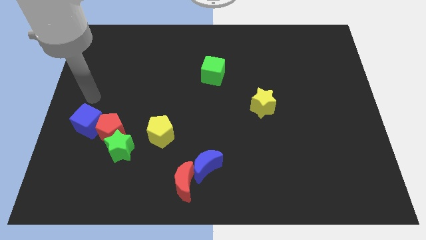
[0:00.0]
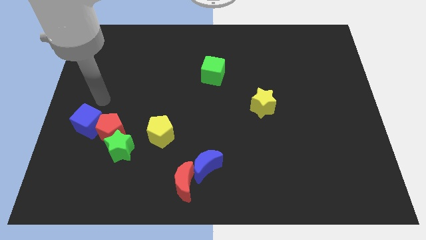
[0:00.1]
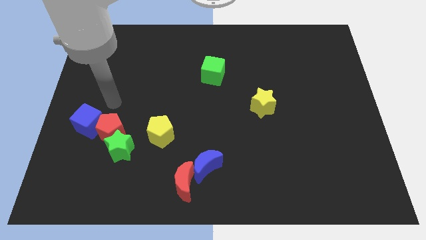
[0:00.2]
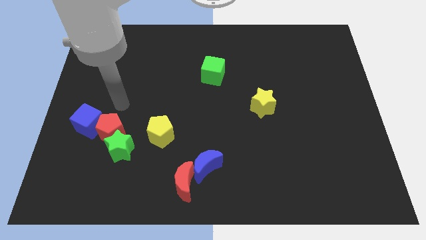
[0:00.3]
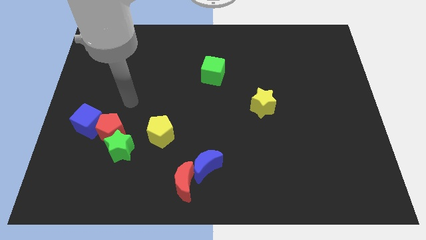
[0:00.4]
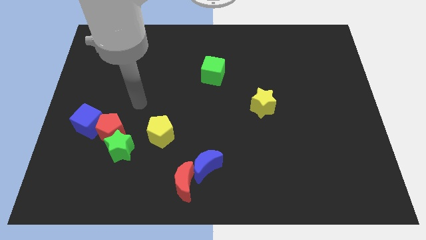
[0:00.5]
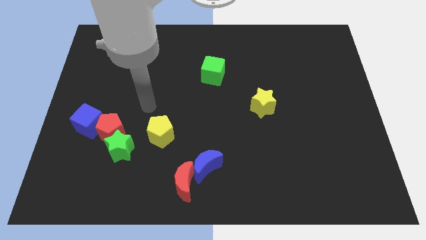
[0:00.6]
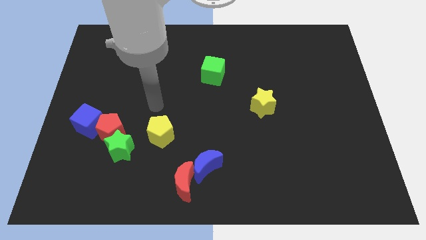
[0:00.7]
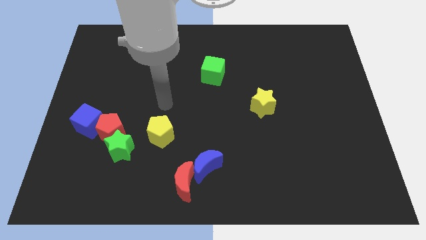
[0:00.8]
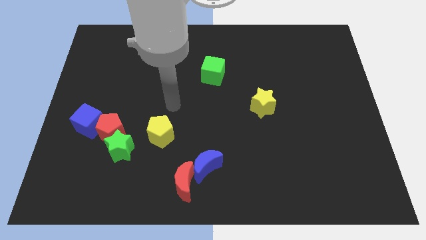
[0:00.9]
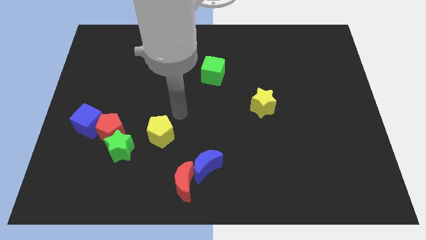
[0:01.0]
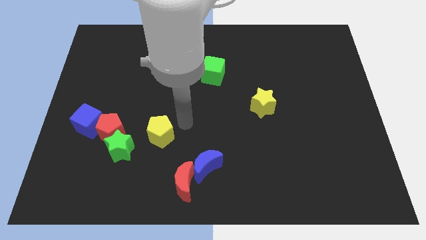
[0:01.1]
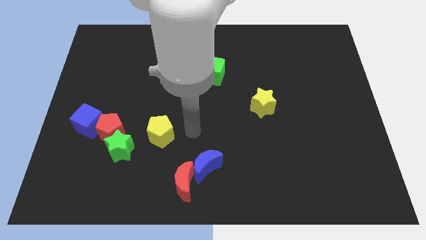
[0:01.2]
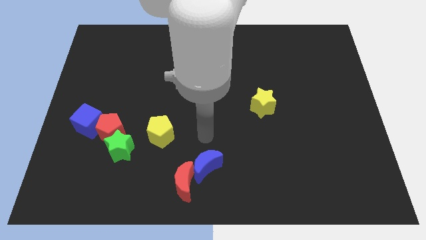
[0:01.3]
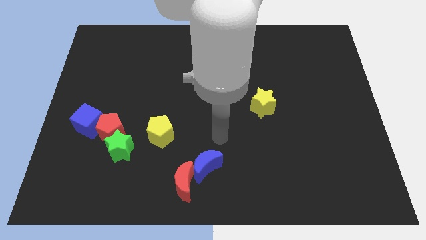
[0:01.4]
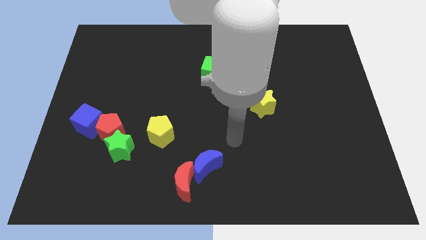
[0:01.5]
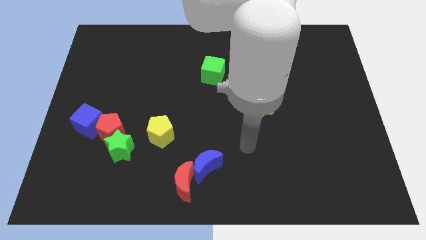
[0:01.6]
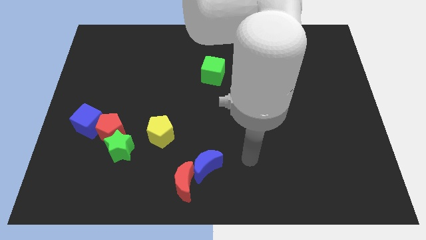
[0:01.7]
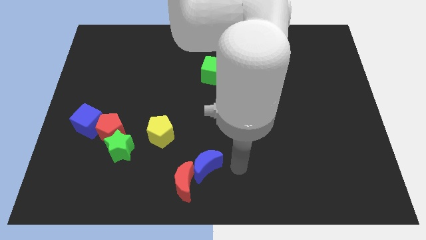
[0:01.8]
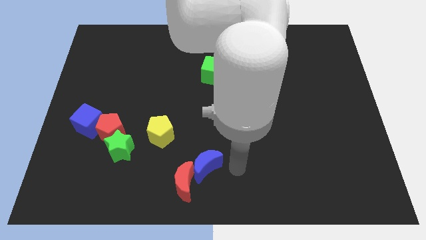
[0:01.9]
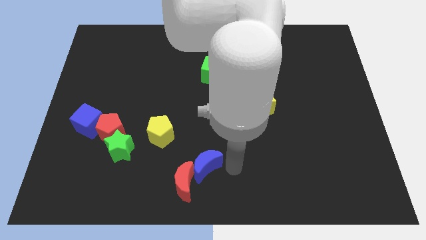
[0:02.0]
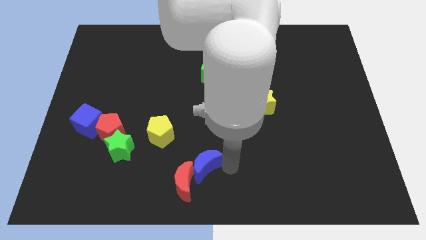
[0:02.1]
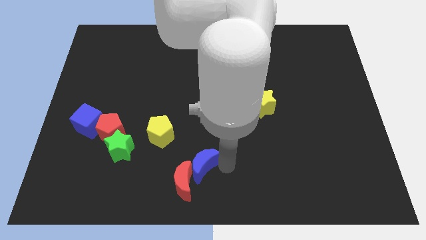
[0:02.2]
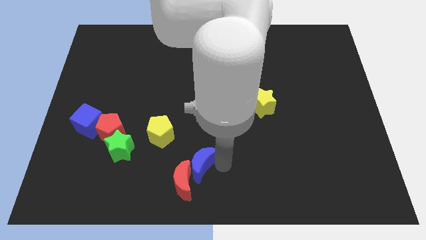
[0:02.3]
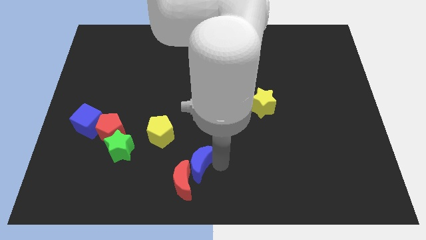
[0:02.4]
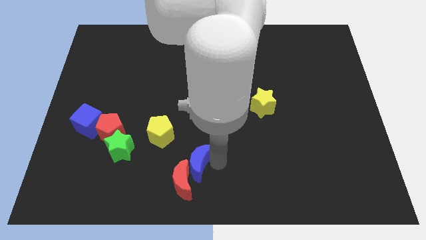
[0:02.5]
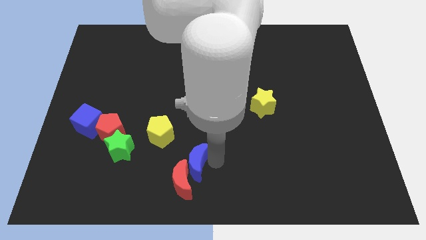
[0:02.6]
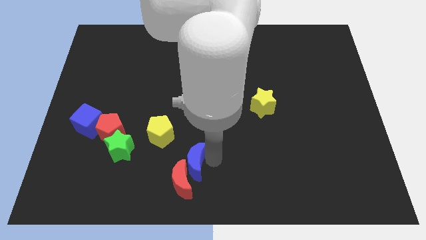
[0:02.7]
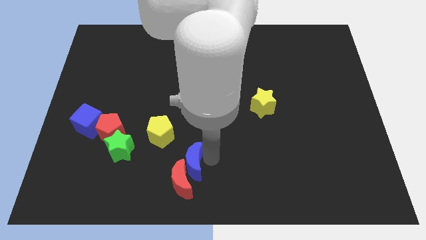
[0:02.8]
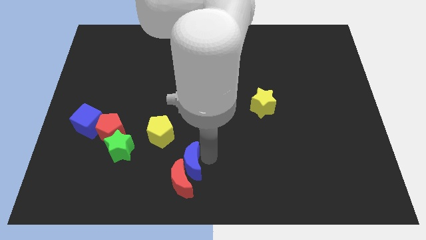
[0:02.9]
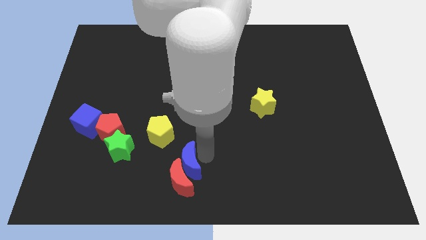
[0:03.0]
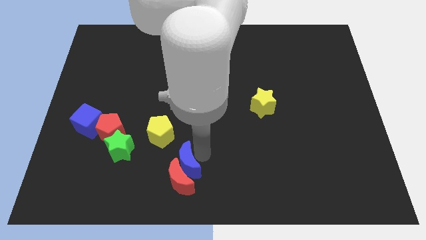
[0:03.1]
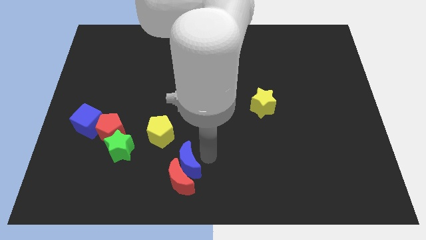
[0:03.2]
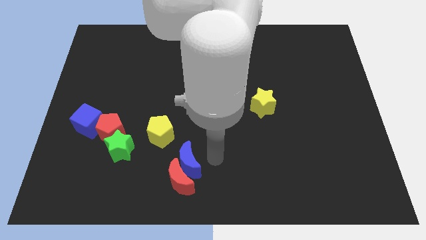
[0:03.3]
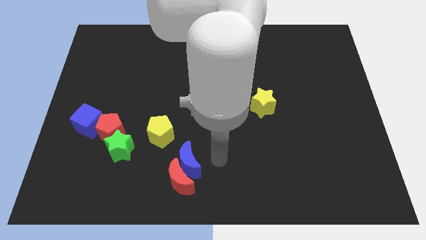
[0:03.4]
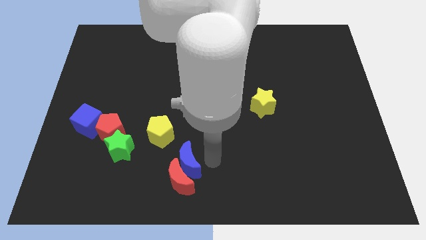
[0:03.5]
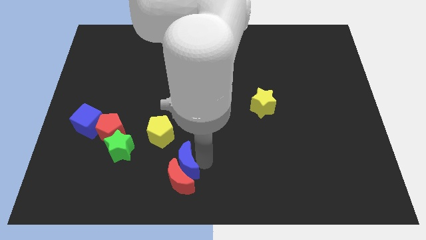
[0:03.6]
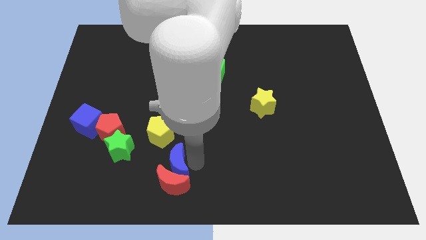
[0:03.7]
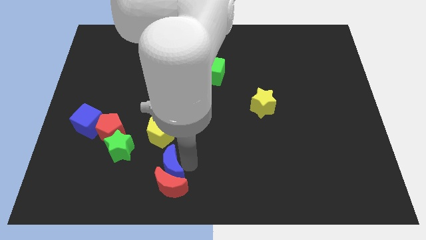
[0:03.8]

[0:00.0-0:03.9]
slightly move the blue moon left

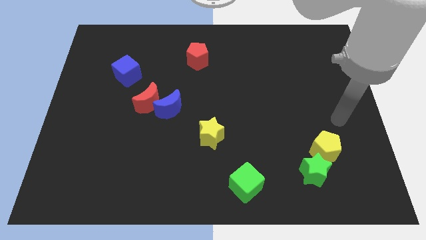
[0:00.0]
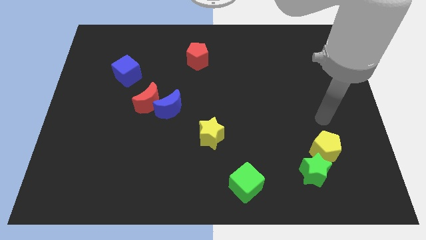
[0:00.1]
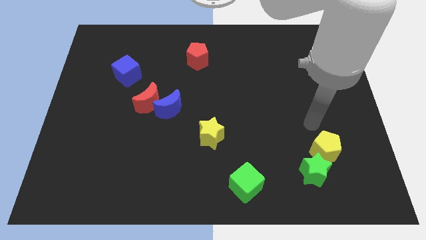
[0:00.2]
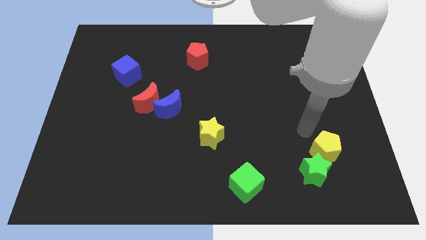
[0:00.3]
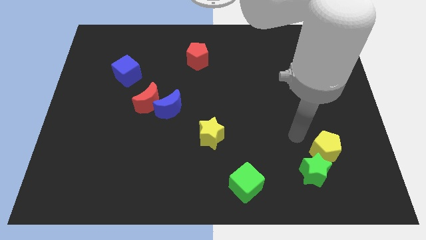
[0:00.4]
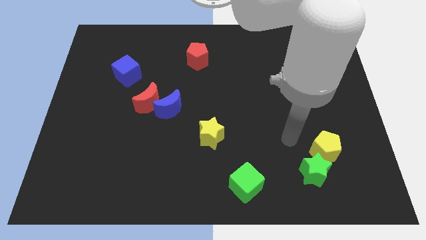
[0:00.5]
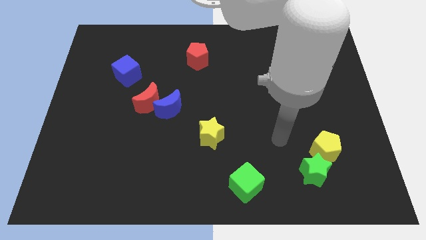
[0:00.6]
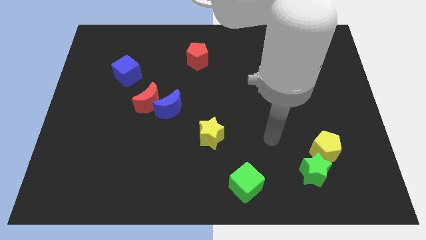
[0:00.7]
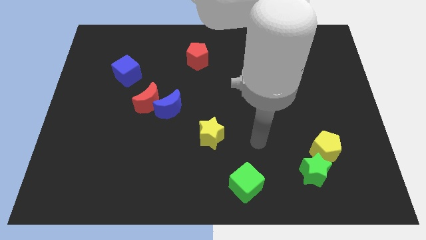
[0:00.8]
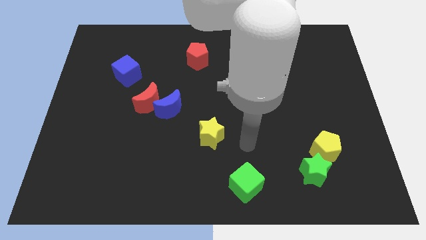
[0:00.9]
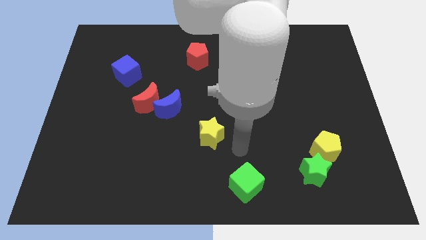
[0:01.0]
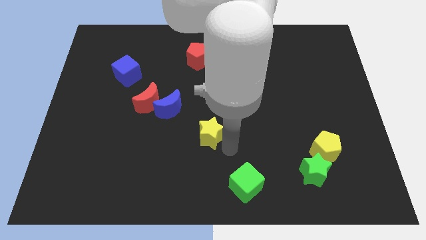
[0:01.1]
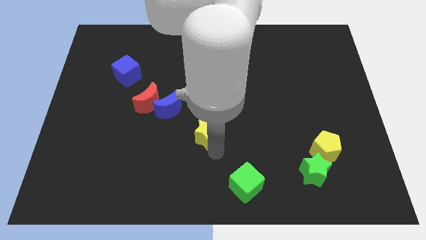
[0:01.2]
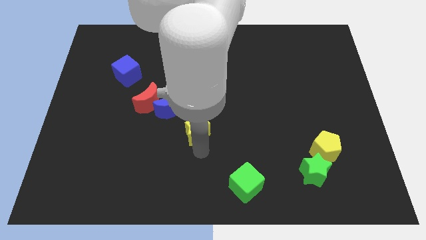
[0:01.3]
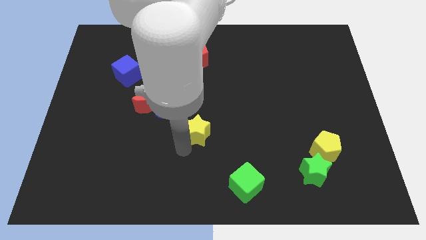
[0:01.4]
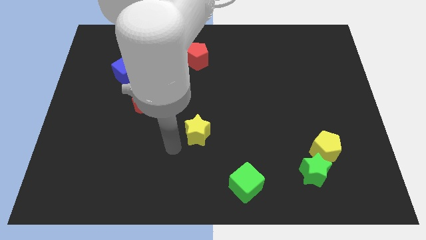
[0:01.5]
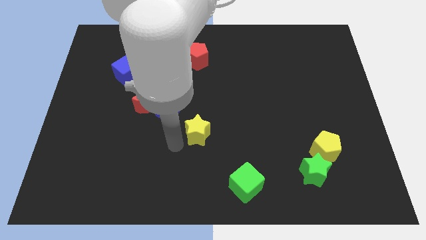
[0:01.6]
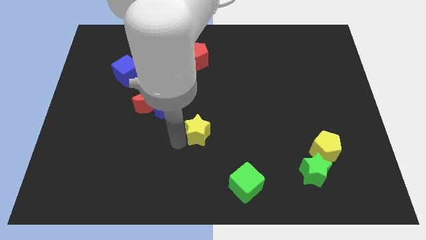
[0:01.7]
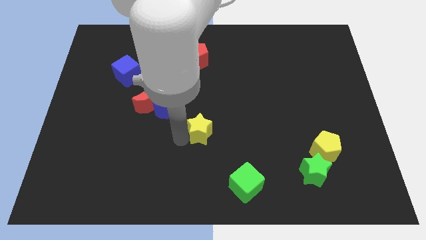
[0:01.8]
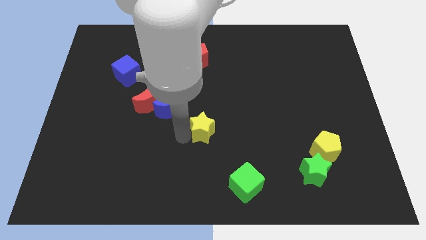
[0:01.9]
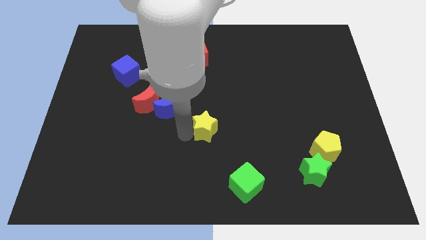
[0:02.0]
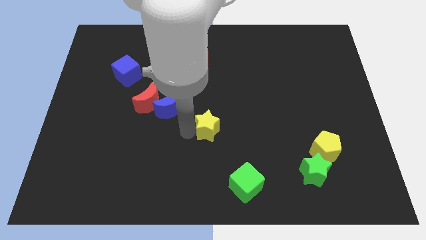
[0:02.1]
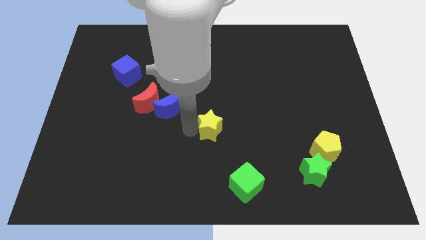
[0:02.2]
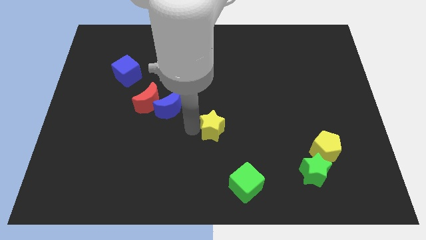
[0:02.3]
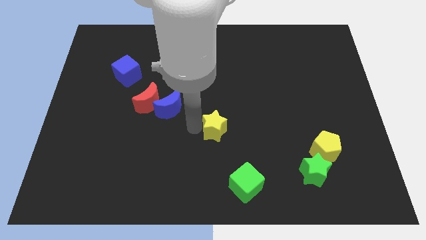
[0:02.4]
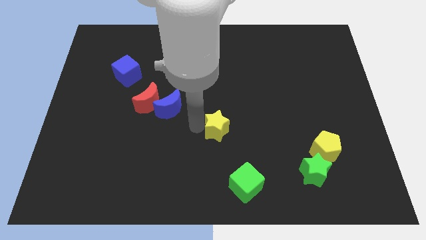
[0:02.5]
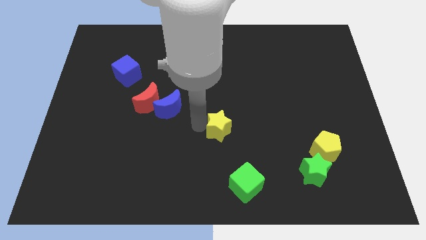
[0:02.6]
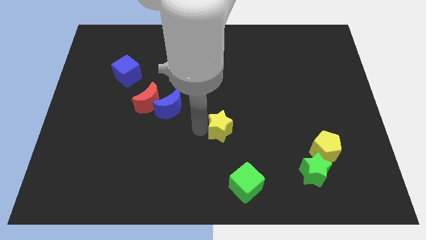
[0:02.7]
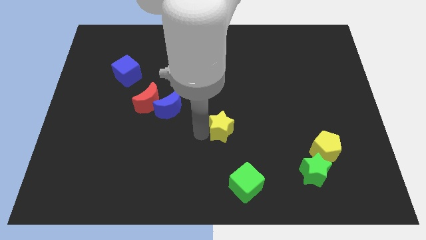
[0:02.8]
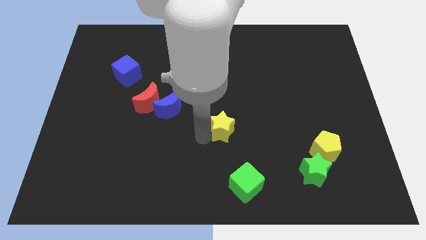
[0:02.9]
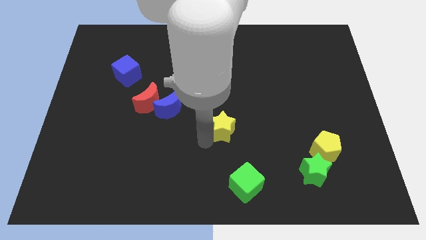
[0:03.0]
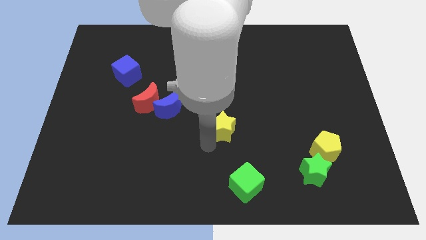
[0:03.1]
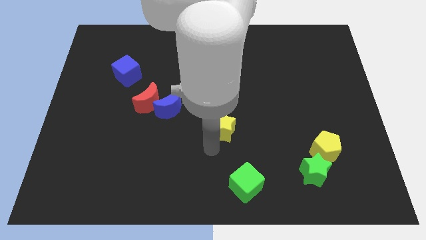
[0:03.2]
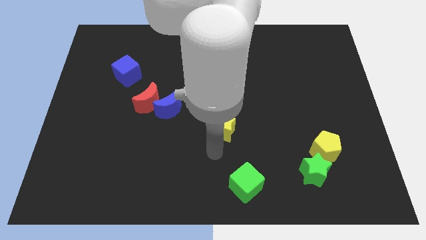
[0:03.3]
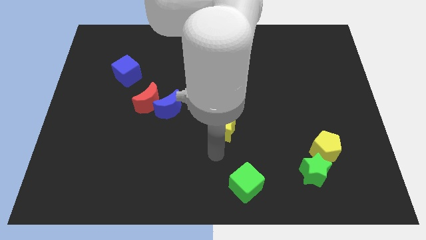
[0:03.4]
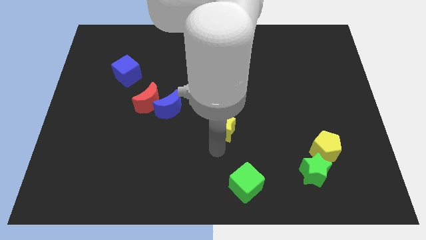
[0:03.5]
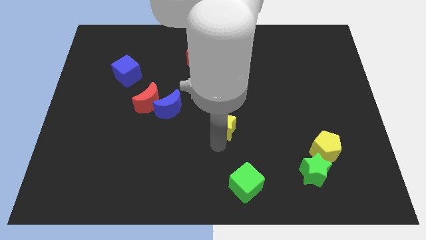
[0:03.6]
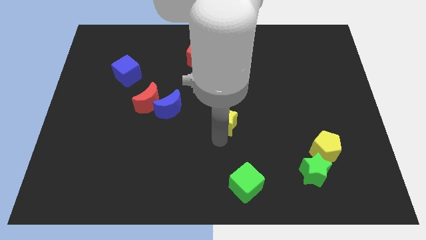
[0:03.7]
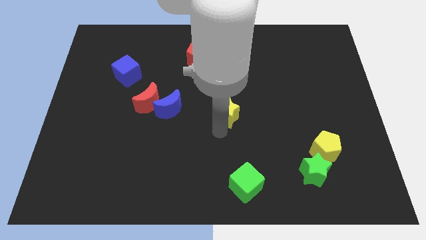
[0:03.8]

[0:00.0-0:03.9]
push the yellow star upwards and right slightly

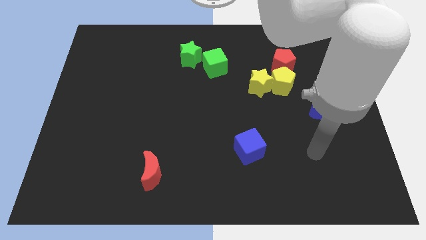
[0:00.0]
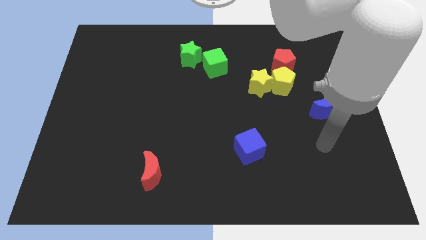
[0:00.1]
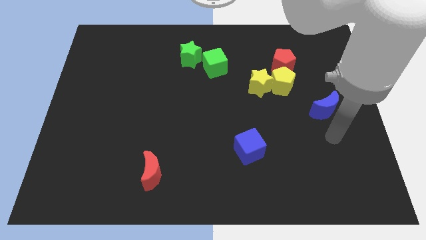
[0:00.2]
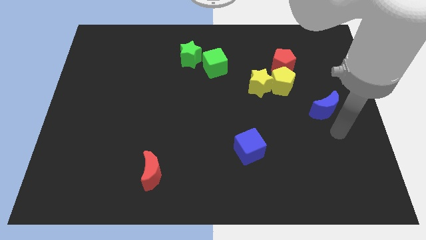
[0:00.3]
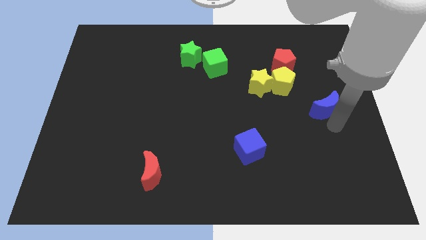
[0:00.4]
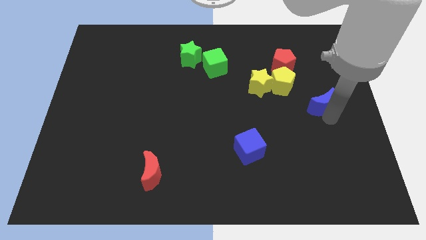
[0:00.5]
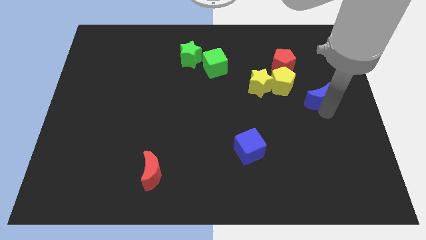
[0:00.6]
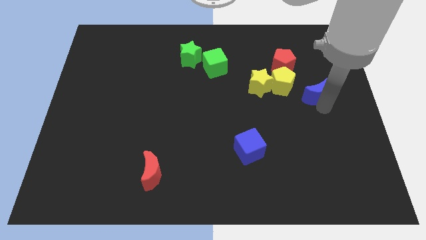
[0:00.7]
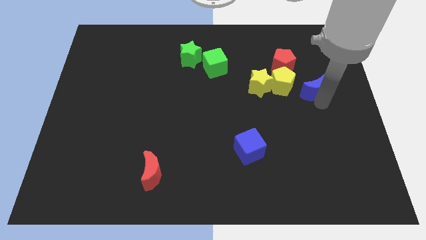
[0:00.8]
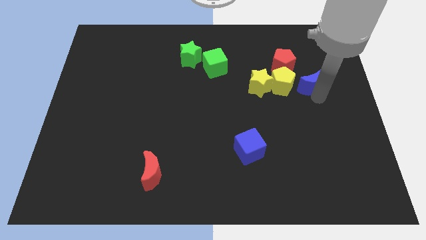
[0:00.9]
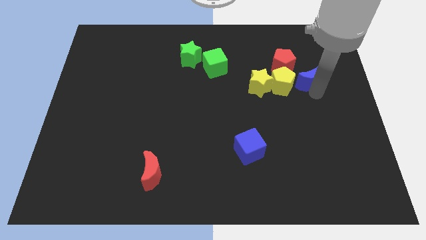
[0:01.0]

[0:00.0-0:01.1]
move the blue moon somewhat up and left diagonally
